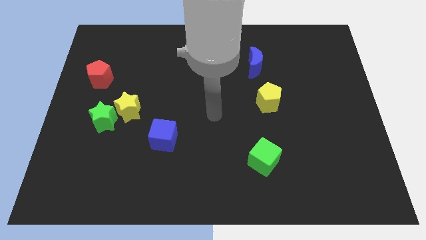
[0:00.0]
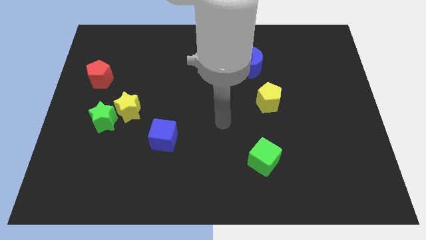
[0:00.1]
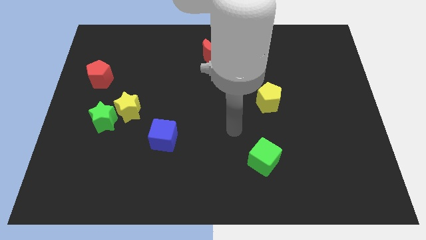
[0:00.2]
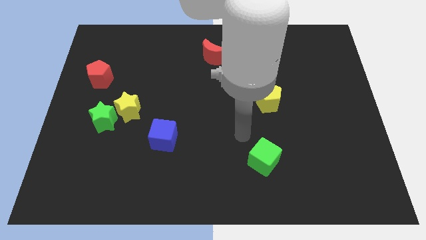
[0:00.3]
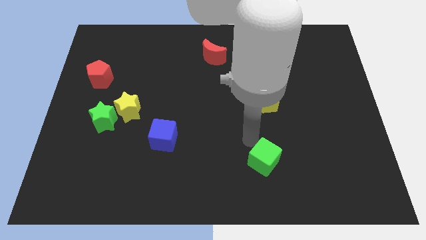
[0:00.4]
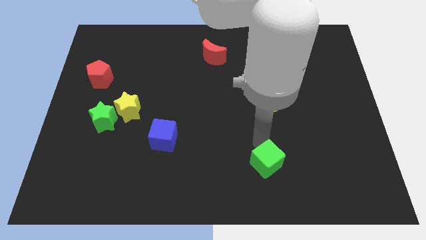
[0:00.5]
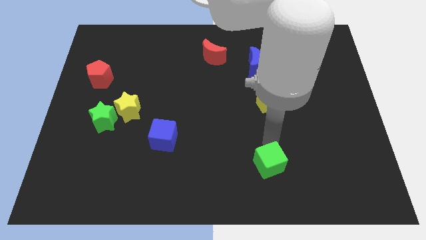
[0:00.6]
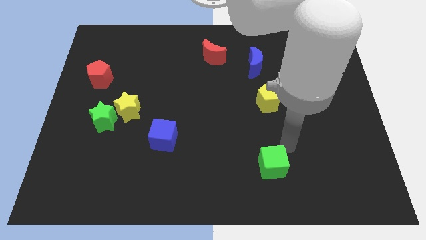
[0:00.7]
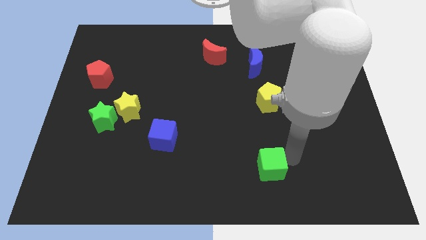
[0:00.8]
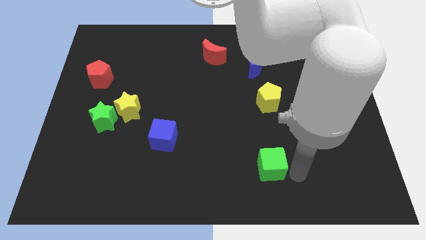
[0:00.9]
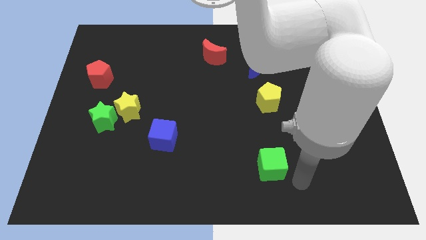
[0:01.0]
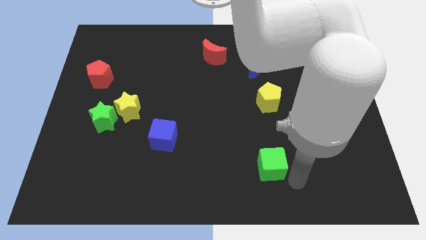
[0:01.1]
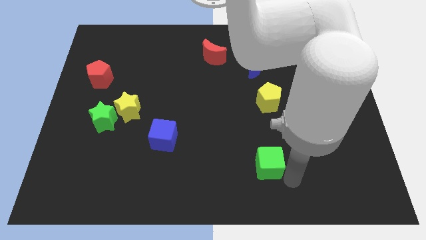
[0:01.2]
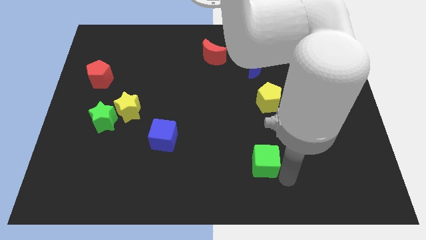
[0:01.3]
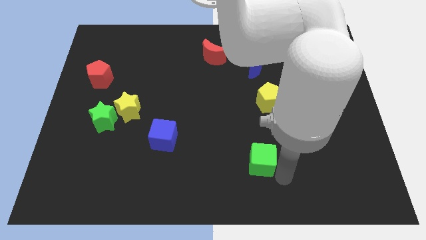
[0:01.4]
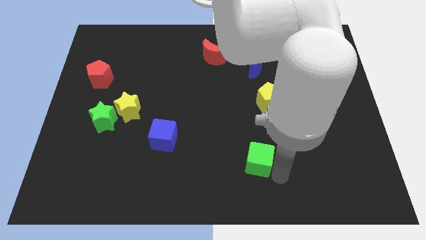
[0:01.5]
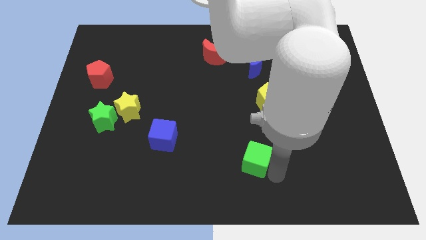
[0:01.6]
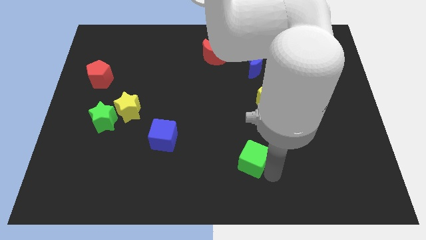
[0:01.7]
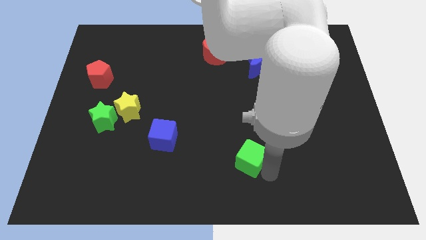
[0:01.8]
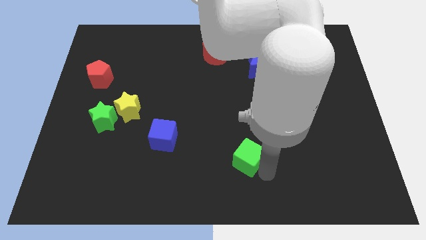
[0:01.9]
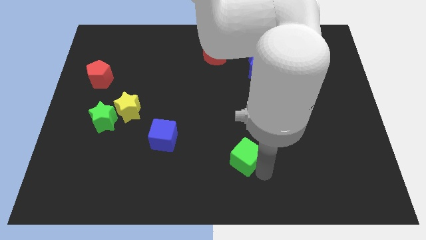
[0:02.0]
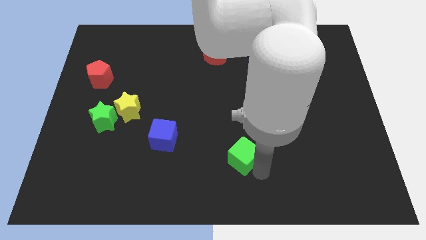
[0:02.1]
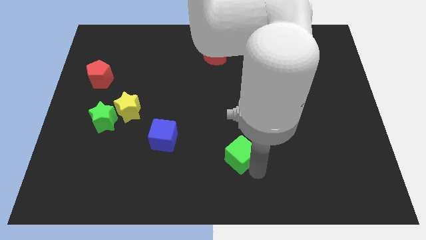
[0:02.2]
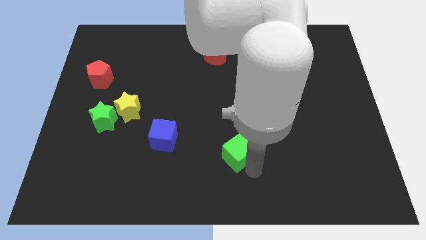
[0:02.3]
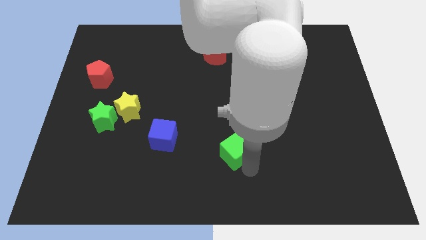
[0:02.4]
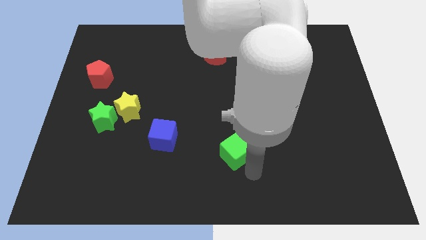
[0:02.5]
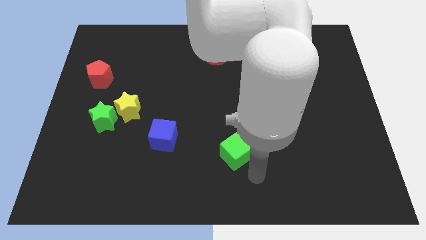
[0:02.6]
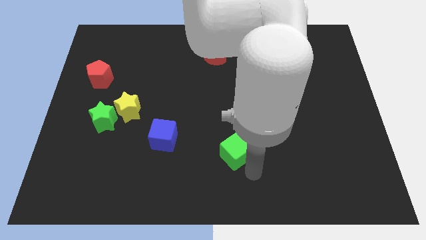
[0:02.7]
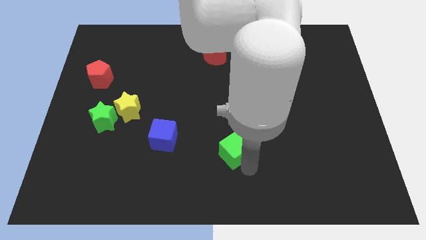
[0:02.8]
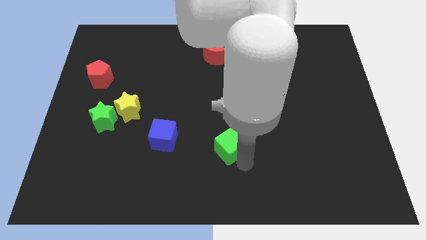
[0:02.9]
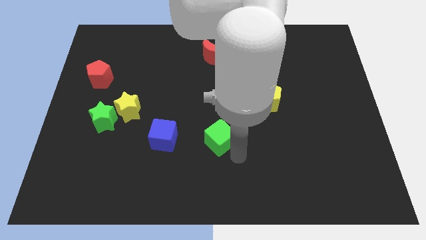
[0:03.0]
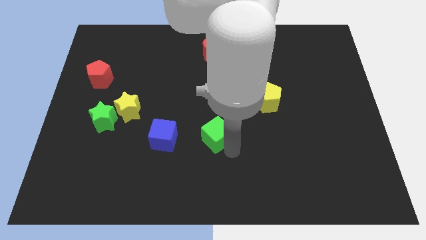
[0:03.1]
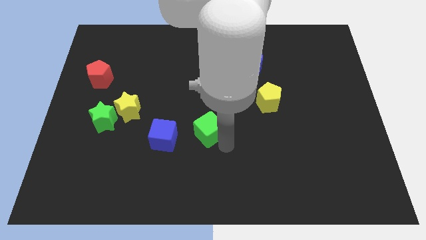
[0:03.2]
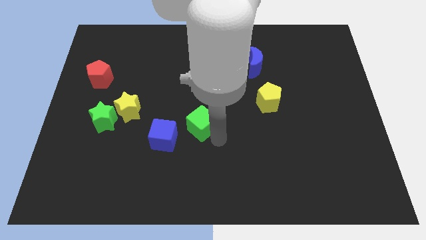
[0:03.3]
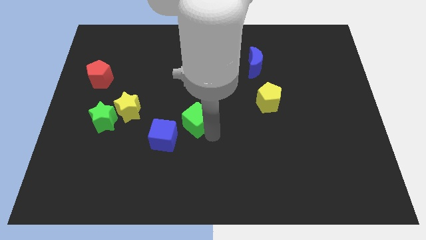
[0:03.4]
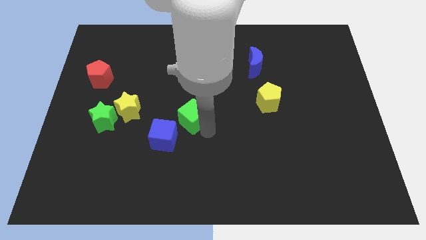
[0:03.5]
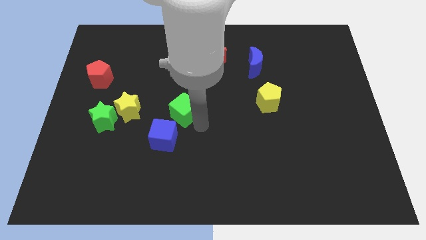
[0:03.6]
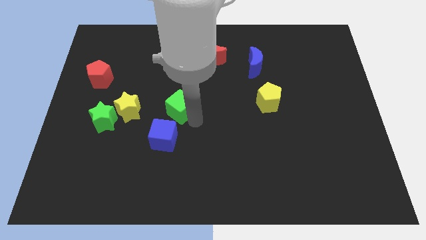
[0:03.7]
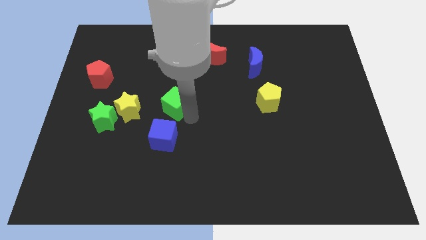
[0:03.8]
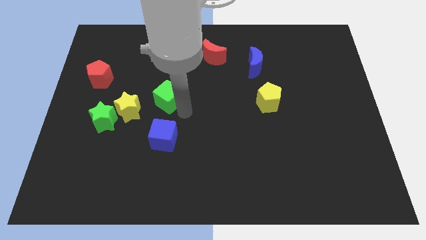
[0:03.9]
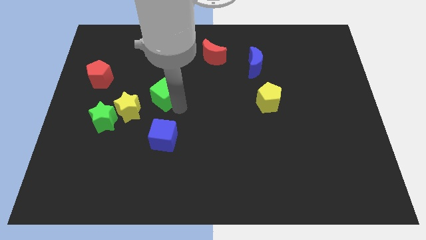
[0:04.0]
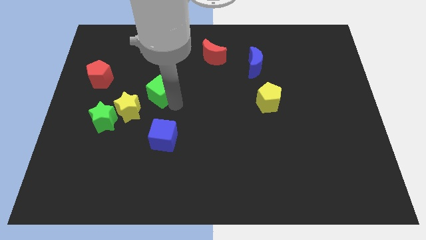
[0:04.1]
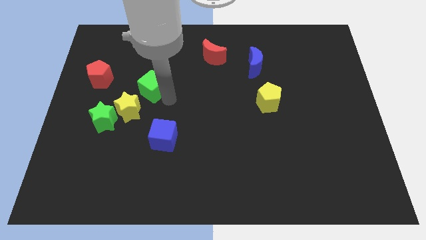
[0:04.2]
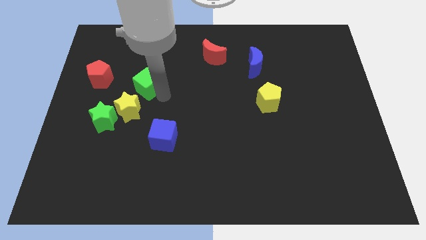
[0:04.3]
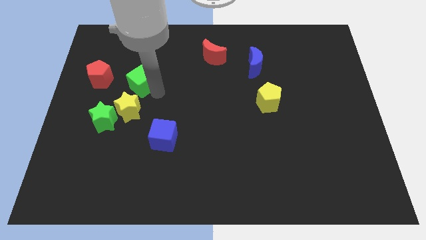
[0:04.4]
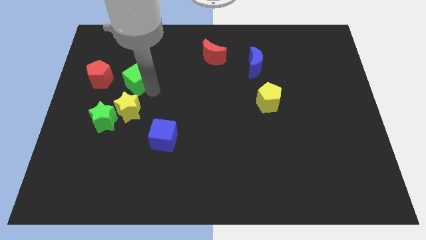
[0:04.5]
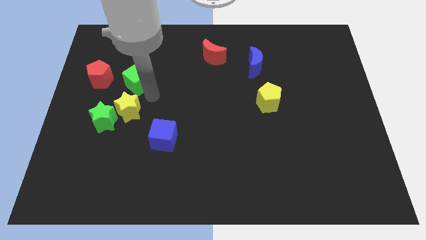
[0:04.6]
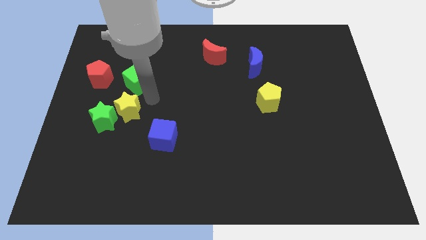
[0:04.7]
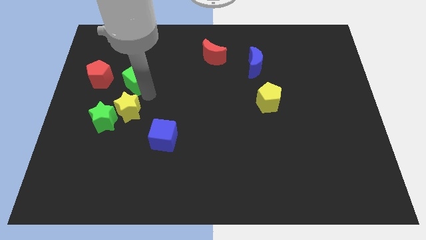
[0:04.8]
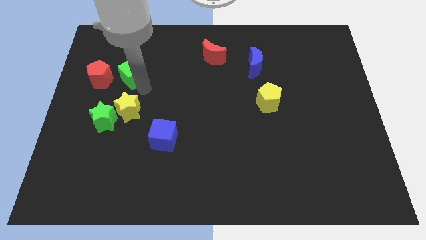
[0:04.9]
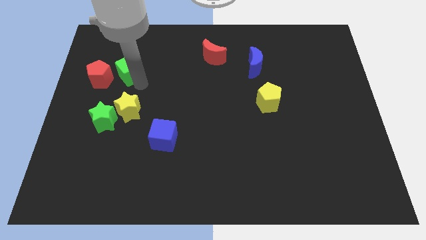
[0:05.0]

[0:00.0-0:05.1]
put the green cube to the top right of the red pentagon

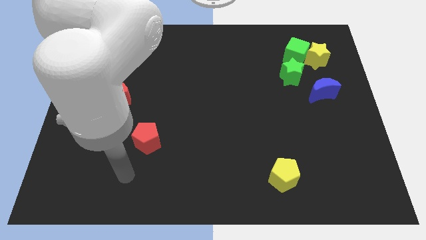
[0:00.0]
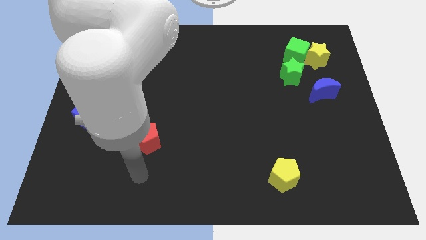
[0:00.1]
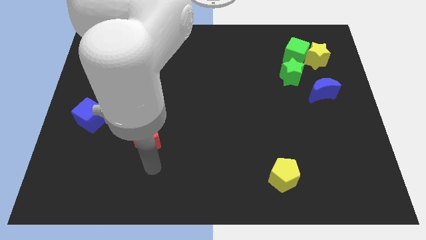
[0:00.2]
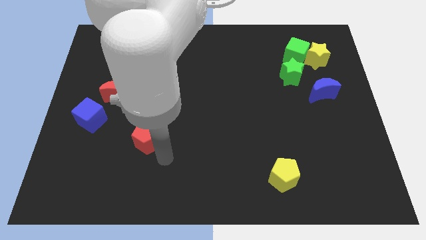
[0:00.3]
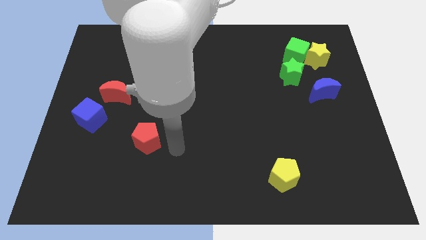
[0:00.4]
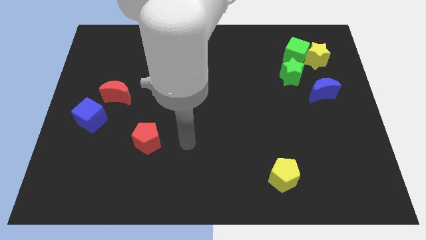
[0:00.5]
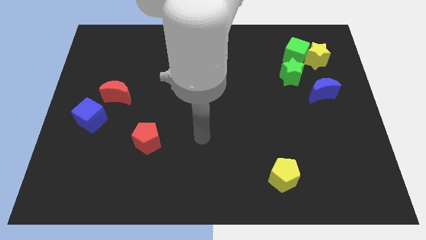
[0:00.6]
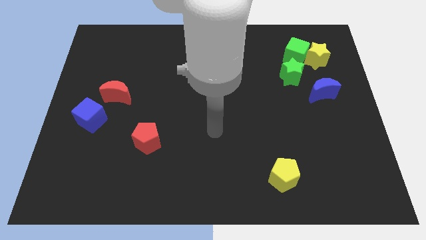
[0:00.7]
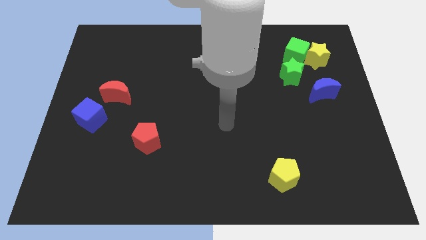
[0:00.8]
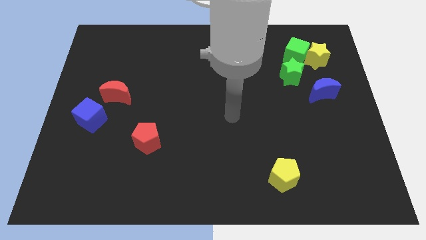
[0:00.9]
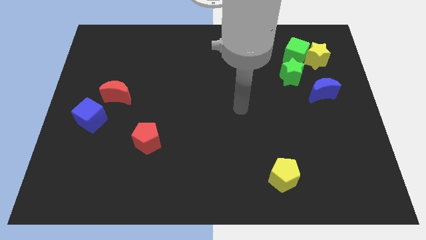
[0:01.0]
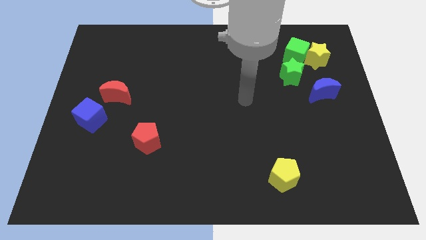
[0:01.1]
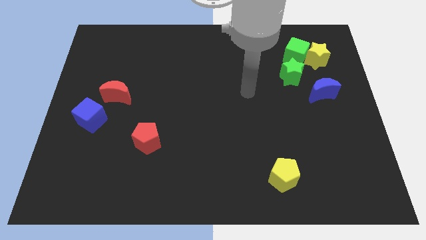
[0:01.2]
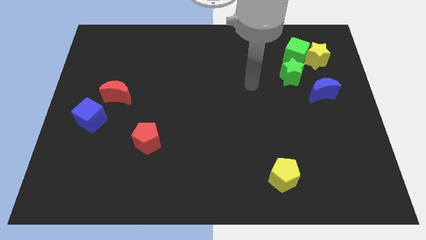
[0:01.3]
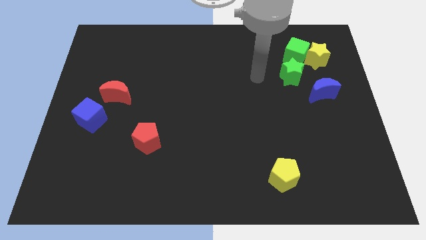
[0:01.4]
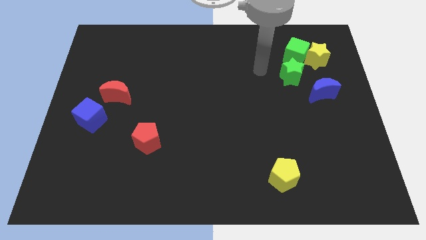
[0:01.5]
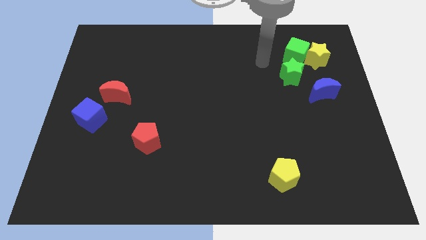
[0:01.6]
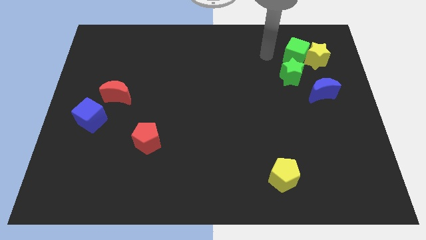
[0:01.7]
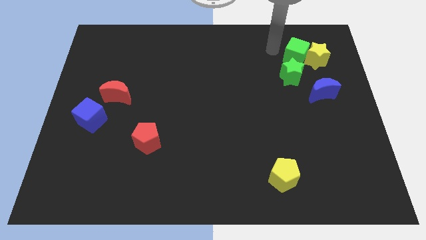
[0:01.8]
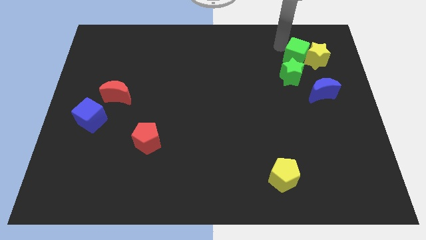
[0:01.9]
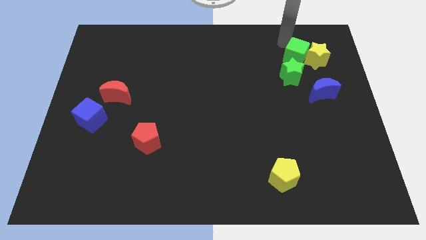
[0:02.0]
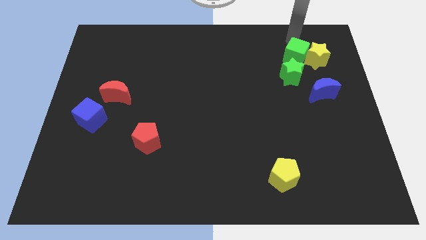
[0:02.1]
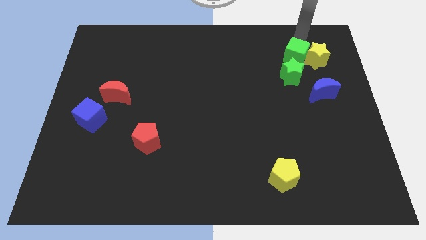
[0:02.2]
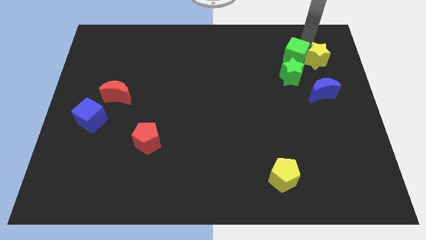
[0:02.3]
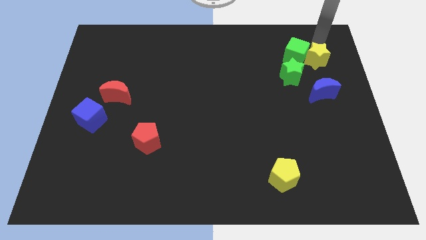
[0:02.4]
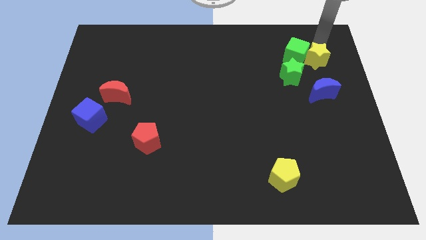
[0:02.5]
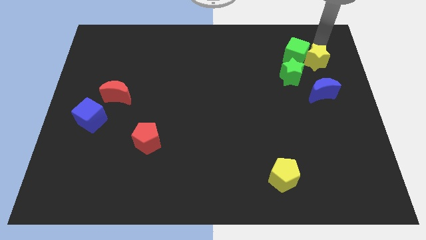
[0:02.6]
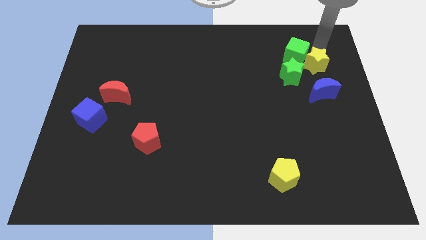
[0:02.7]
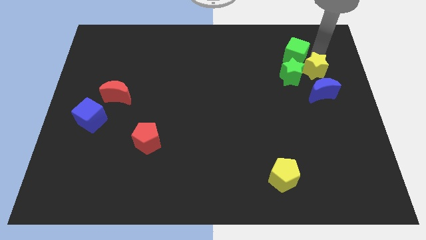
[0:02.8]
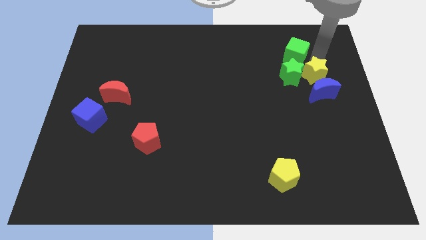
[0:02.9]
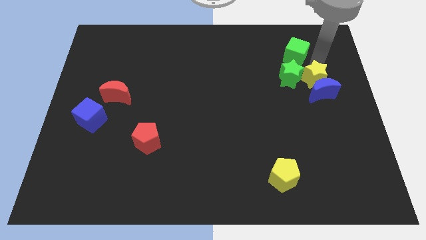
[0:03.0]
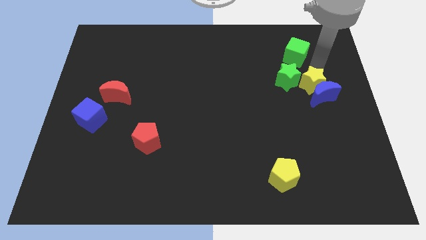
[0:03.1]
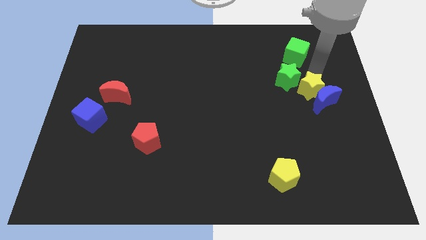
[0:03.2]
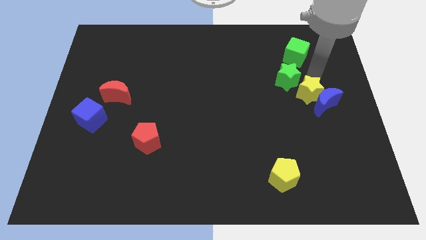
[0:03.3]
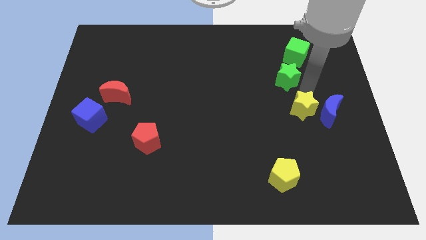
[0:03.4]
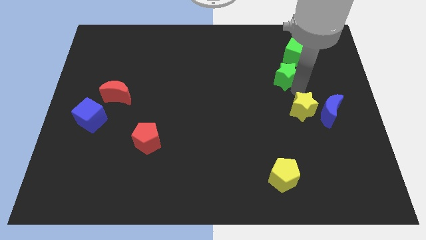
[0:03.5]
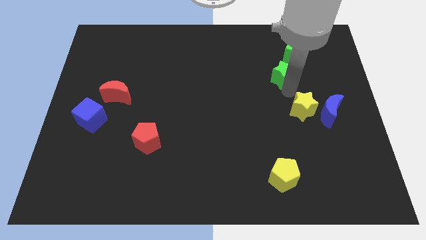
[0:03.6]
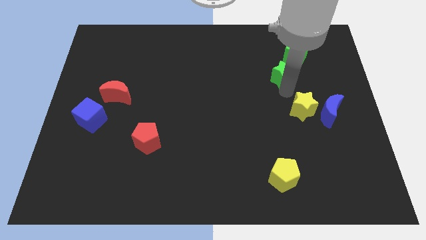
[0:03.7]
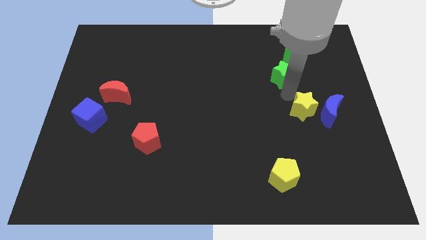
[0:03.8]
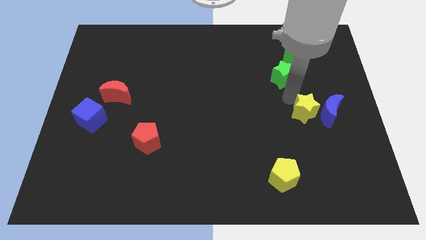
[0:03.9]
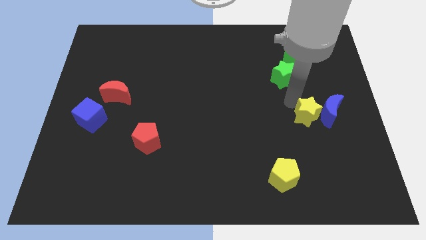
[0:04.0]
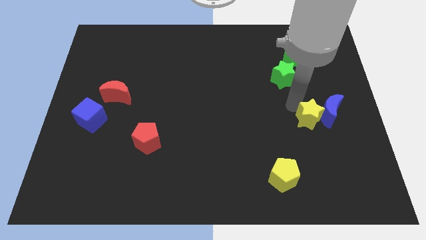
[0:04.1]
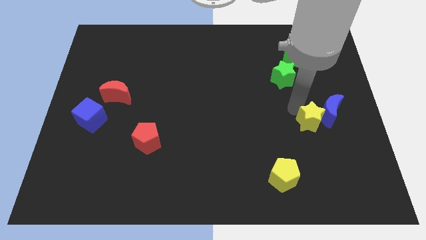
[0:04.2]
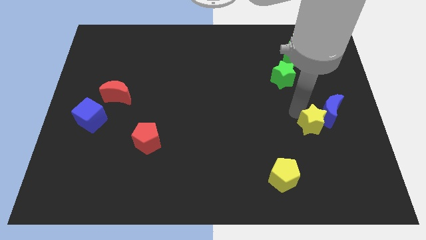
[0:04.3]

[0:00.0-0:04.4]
put the yellow star to the bottom side of the blue moon
